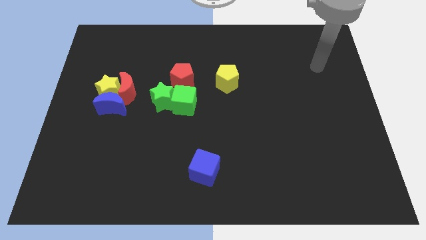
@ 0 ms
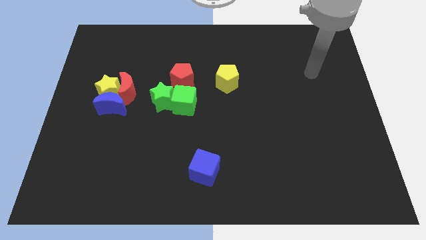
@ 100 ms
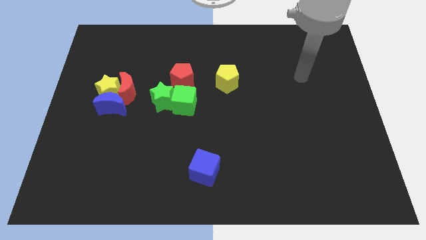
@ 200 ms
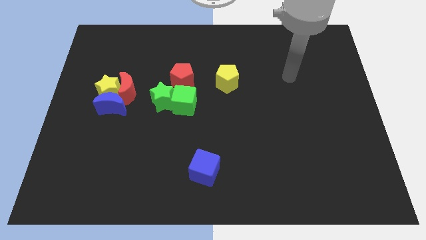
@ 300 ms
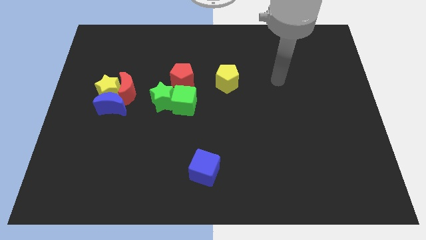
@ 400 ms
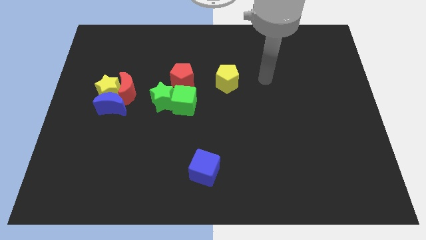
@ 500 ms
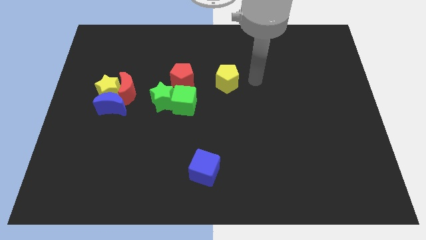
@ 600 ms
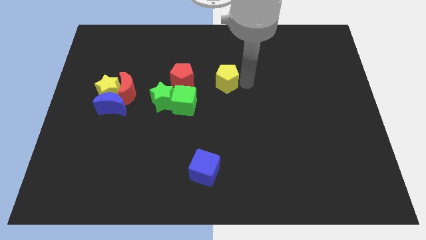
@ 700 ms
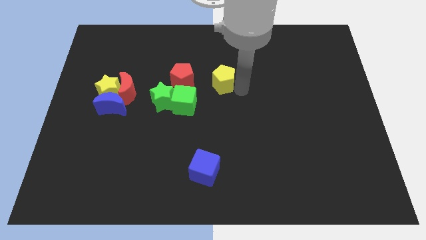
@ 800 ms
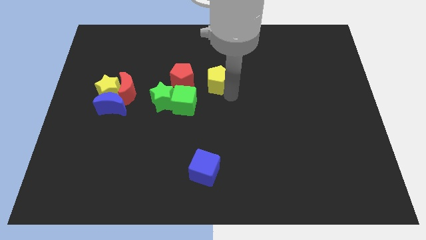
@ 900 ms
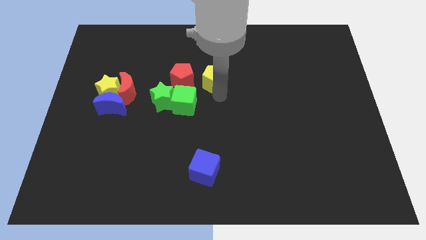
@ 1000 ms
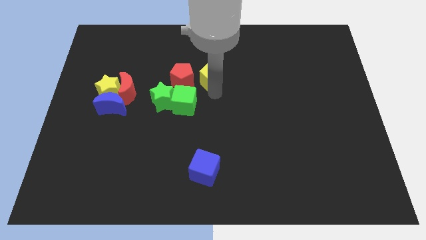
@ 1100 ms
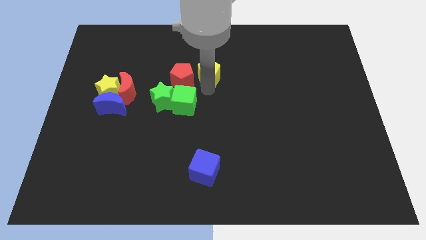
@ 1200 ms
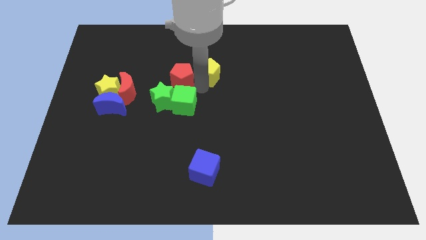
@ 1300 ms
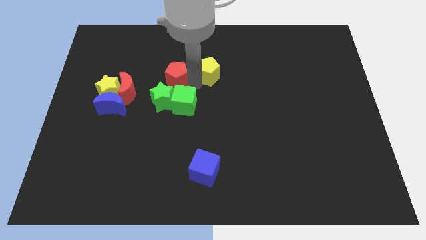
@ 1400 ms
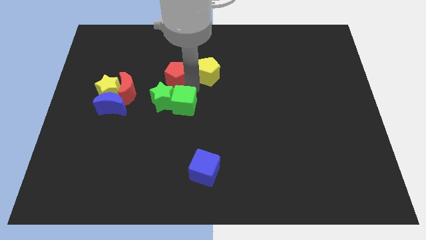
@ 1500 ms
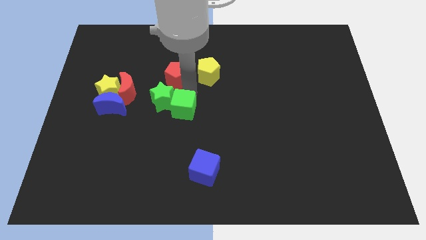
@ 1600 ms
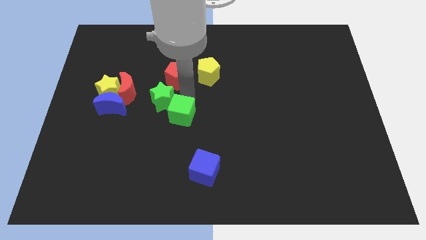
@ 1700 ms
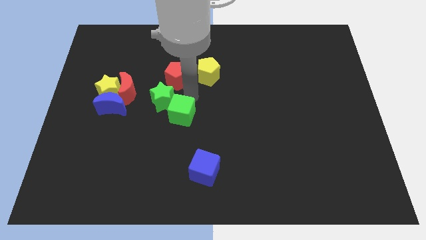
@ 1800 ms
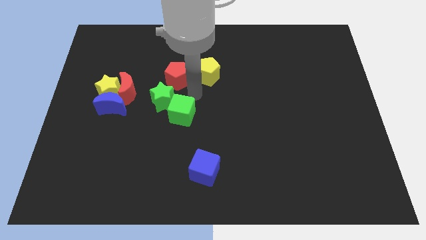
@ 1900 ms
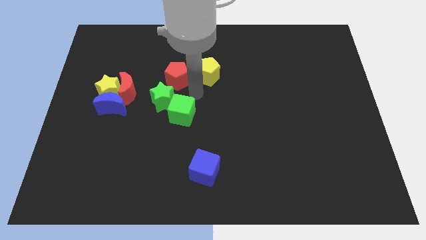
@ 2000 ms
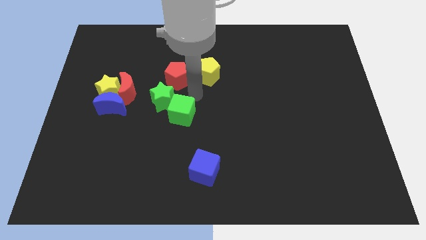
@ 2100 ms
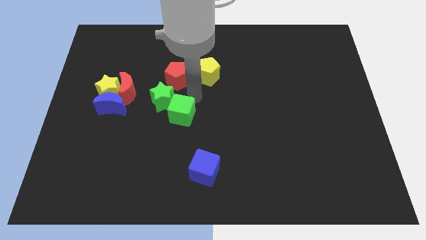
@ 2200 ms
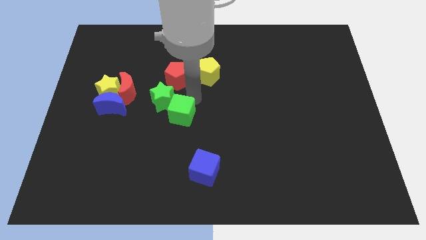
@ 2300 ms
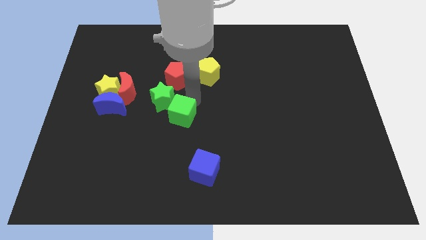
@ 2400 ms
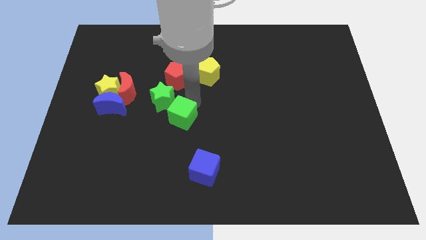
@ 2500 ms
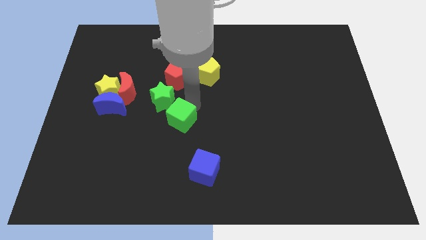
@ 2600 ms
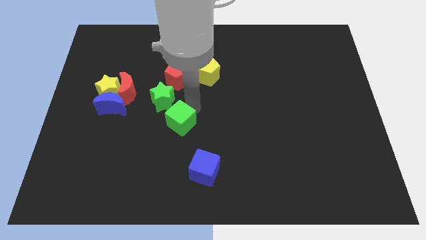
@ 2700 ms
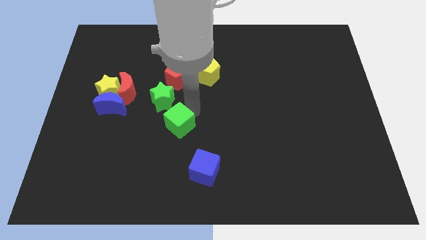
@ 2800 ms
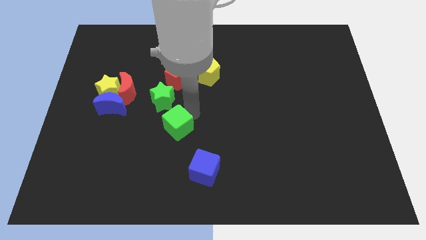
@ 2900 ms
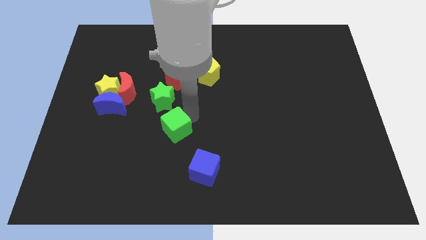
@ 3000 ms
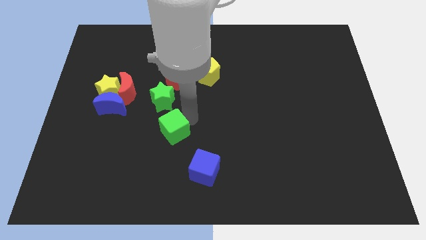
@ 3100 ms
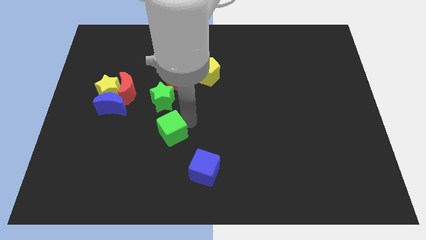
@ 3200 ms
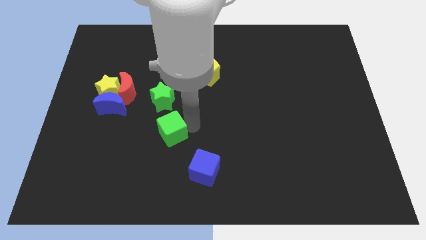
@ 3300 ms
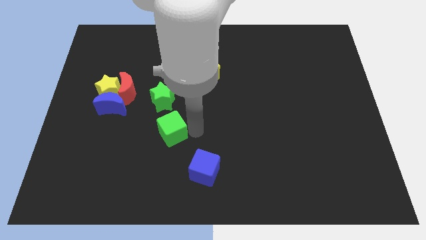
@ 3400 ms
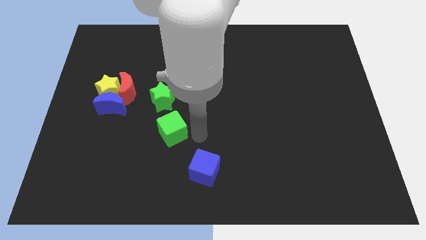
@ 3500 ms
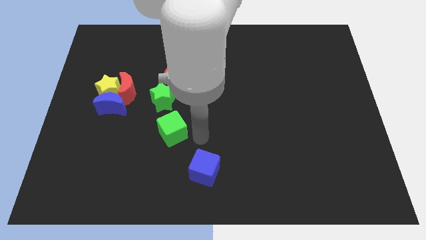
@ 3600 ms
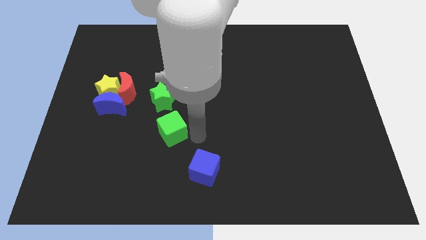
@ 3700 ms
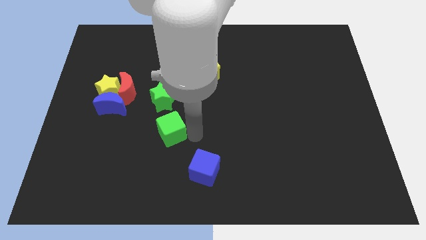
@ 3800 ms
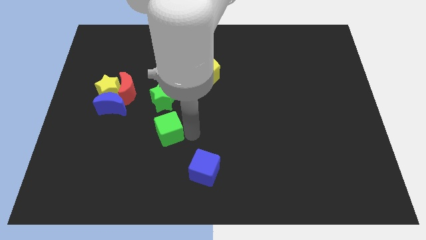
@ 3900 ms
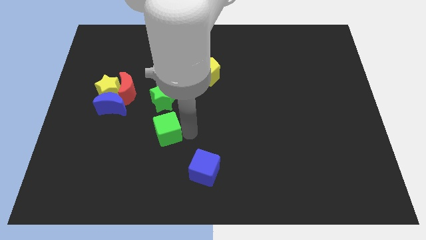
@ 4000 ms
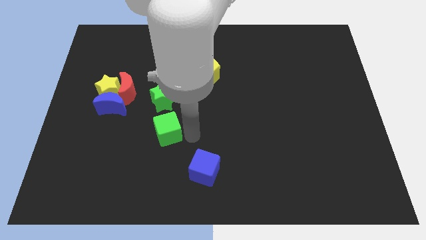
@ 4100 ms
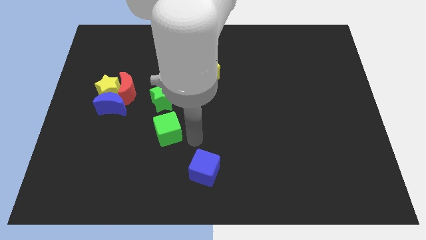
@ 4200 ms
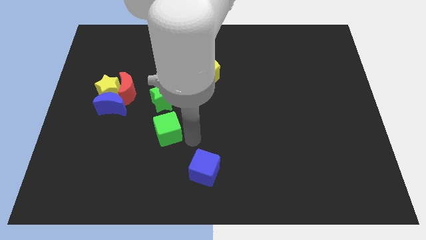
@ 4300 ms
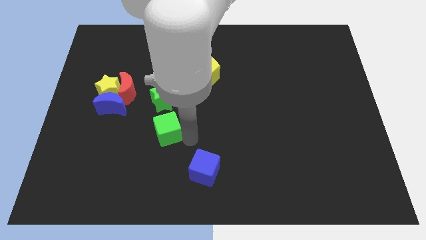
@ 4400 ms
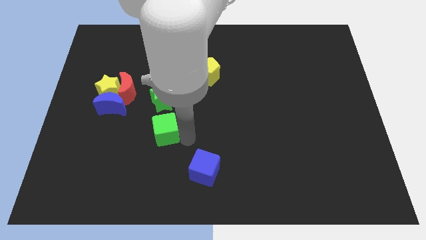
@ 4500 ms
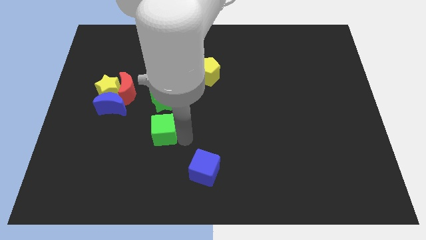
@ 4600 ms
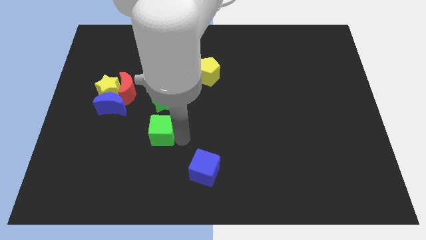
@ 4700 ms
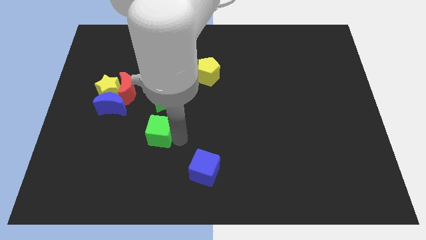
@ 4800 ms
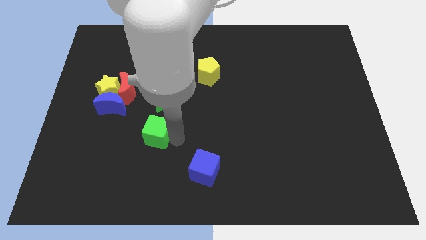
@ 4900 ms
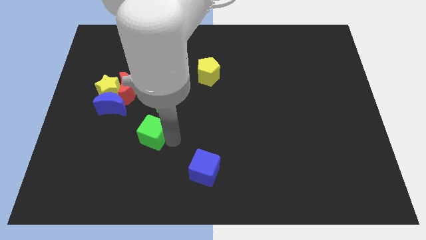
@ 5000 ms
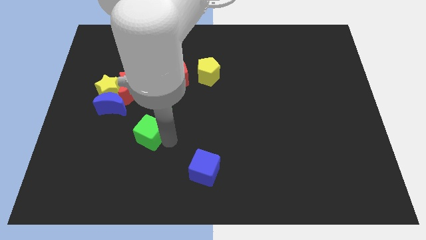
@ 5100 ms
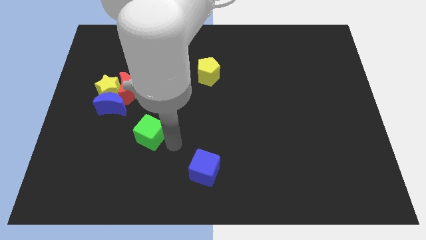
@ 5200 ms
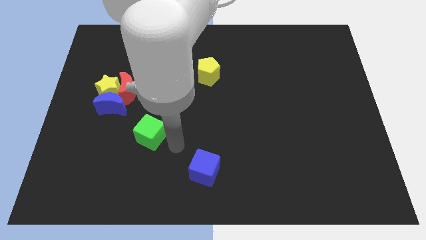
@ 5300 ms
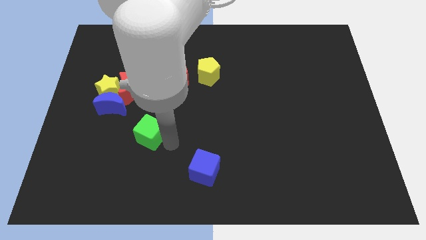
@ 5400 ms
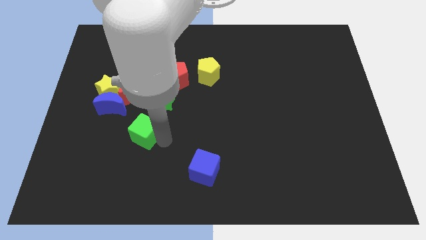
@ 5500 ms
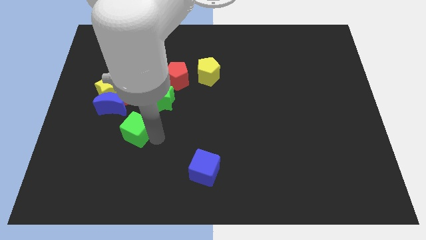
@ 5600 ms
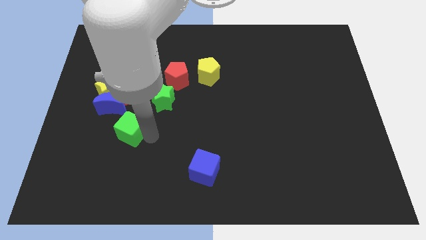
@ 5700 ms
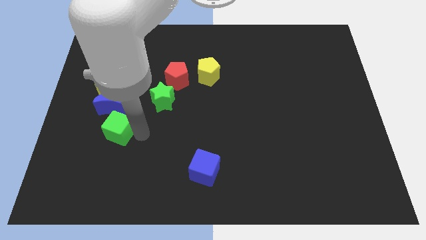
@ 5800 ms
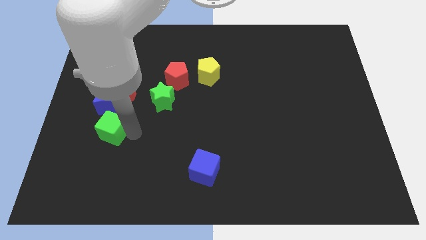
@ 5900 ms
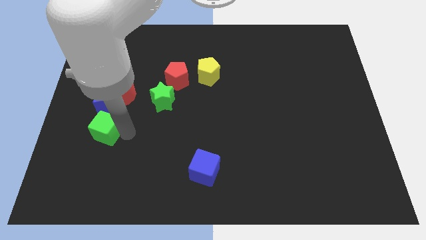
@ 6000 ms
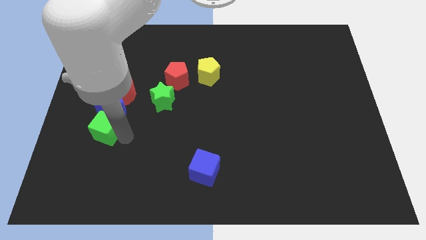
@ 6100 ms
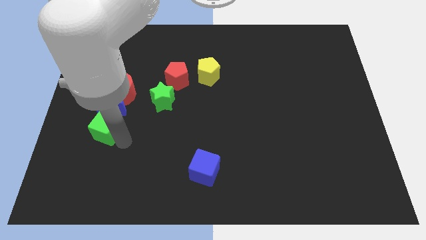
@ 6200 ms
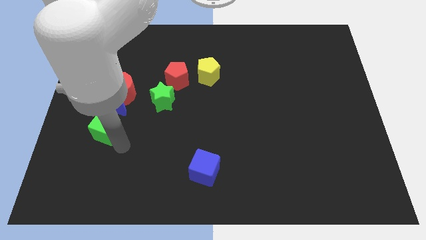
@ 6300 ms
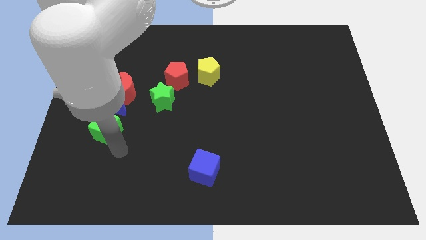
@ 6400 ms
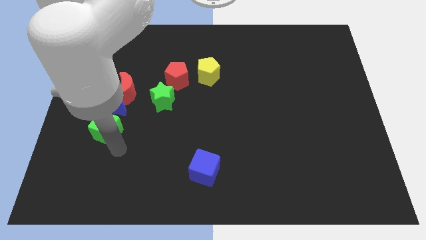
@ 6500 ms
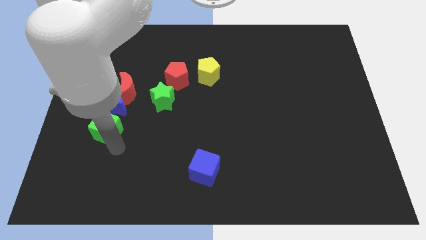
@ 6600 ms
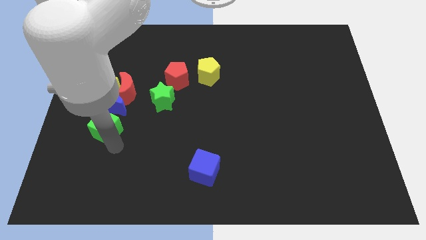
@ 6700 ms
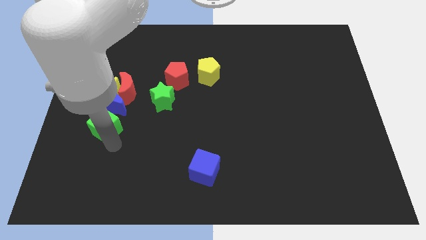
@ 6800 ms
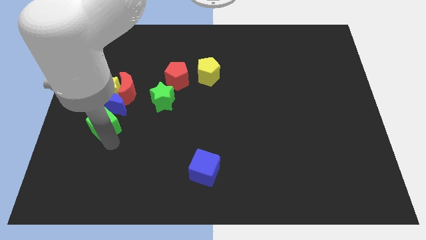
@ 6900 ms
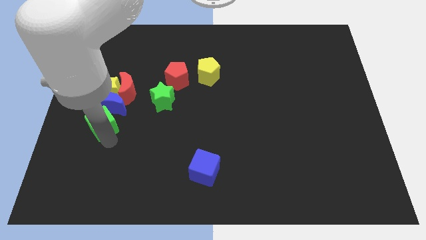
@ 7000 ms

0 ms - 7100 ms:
slide the green cube to the bottom left side of the red moon

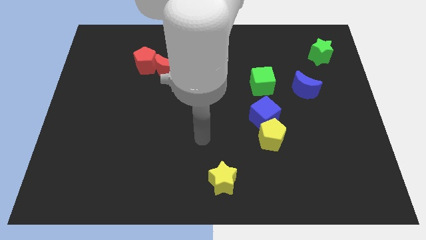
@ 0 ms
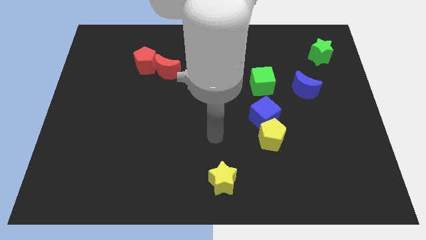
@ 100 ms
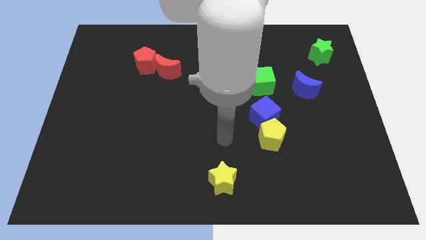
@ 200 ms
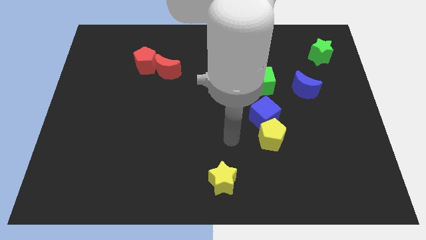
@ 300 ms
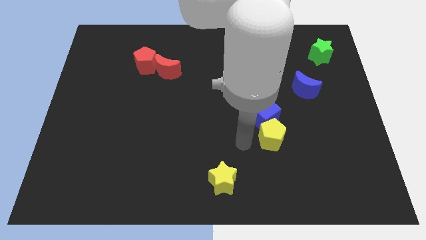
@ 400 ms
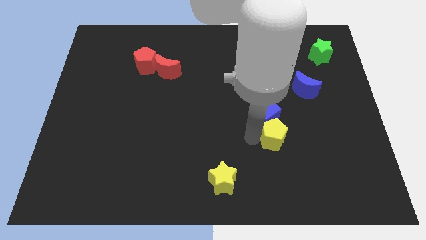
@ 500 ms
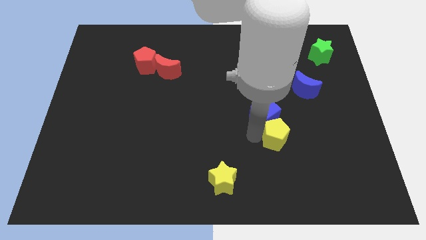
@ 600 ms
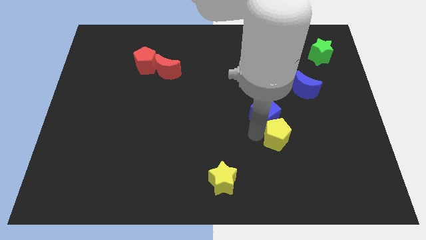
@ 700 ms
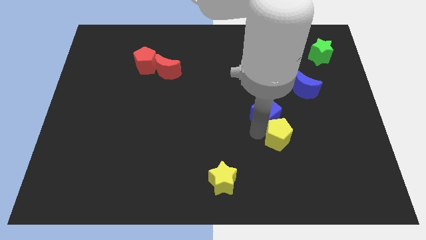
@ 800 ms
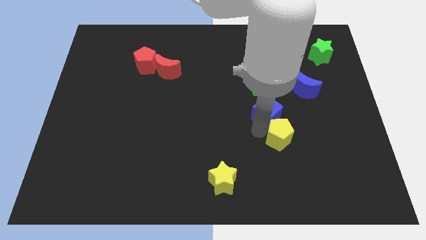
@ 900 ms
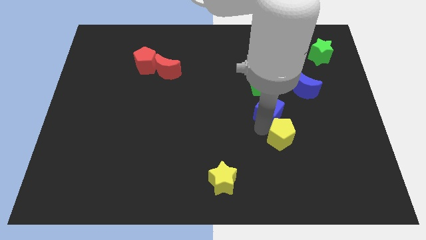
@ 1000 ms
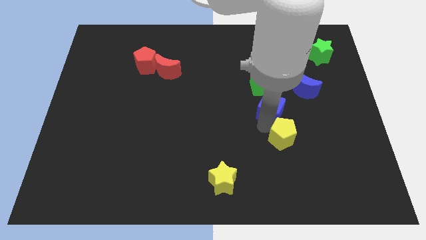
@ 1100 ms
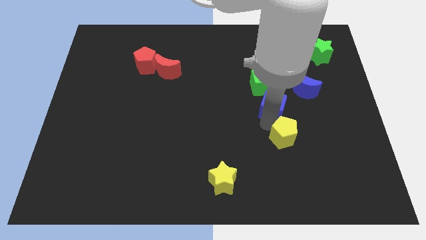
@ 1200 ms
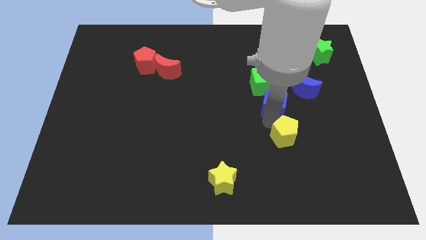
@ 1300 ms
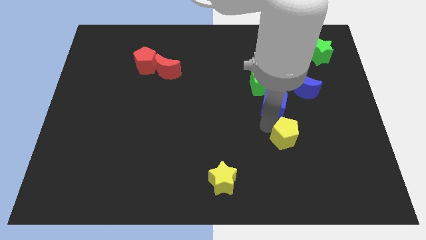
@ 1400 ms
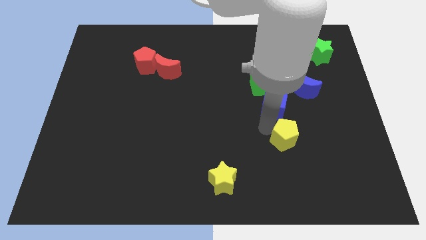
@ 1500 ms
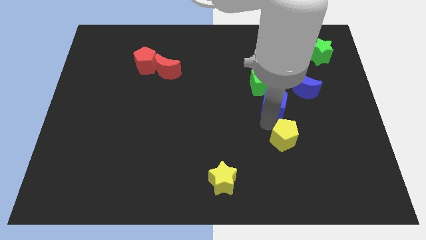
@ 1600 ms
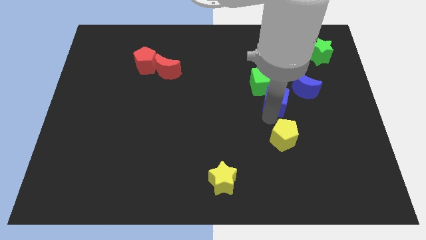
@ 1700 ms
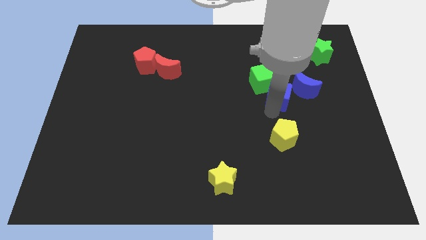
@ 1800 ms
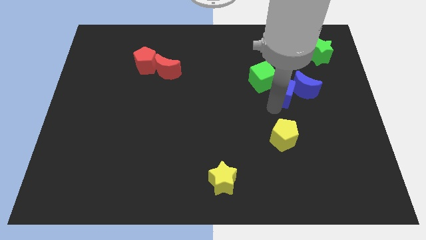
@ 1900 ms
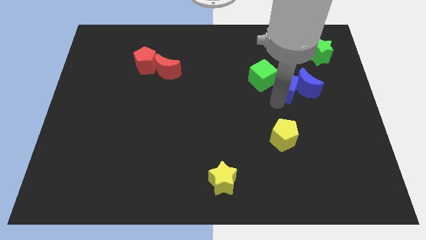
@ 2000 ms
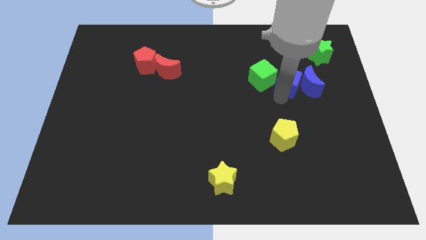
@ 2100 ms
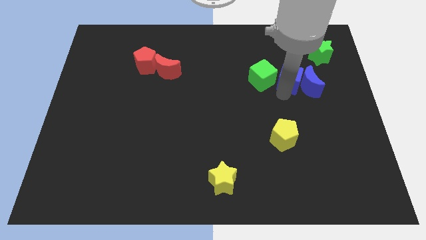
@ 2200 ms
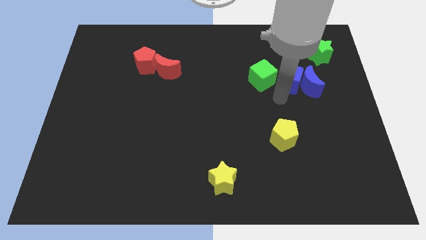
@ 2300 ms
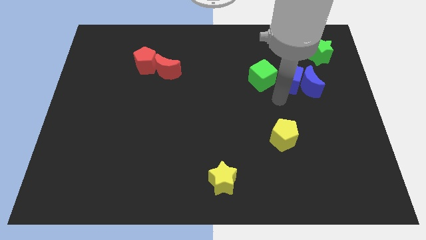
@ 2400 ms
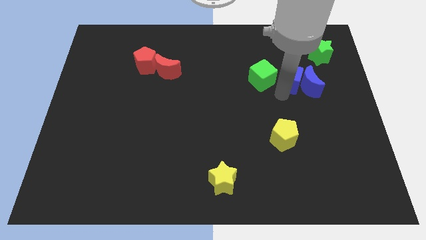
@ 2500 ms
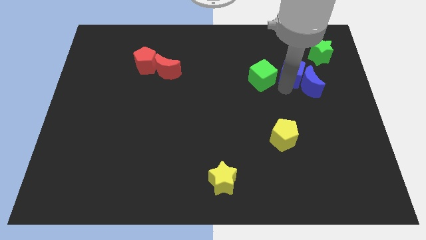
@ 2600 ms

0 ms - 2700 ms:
move the blue cube to the top of the blue moon
